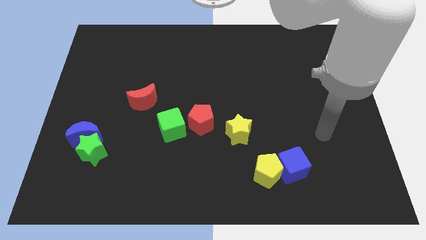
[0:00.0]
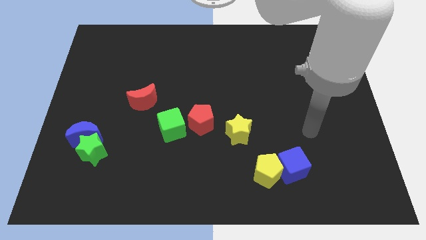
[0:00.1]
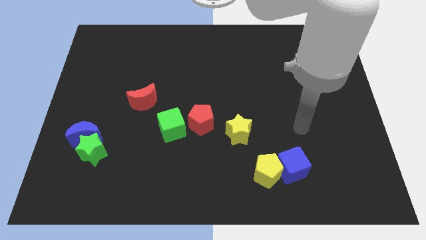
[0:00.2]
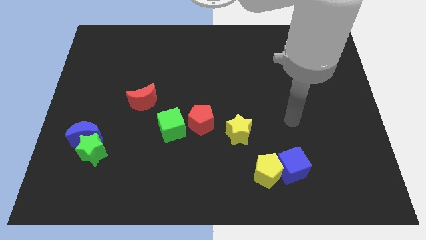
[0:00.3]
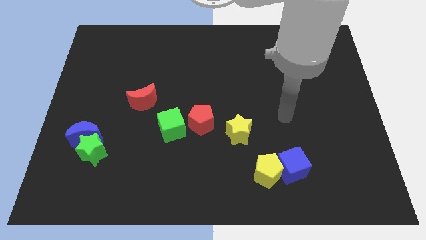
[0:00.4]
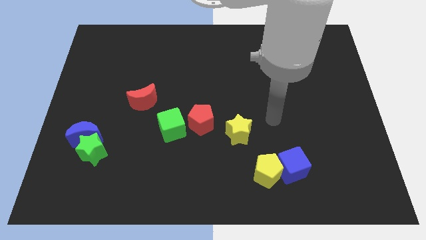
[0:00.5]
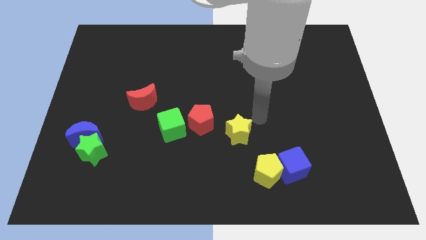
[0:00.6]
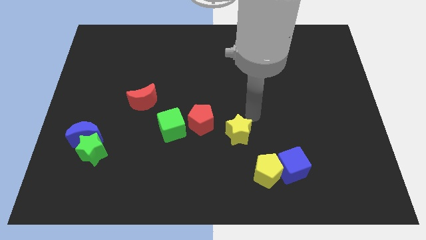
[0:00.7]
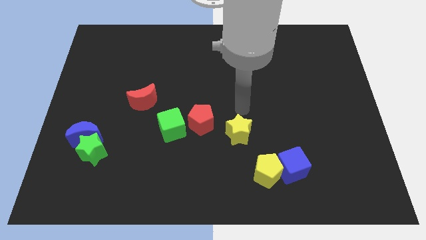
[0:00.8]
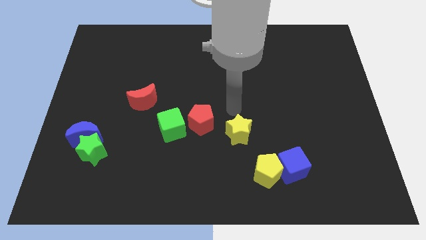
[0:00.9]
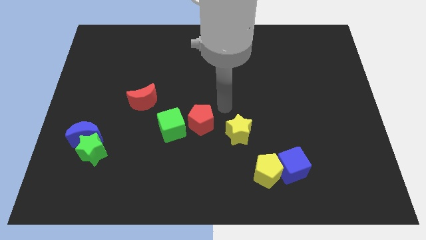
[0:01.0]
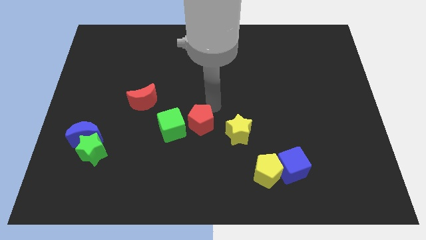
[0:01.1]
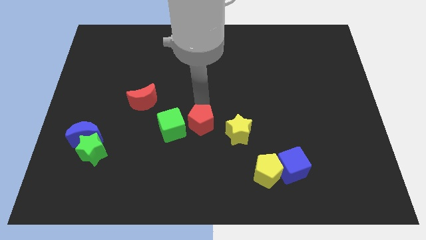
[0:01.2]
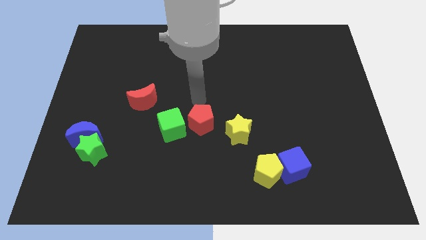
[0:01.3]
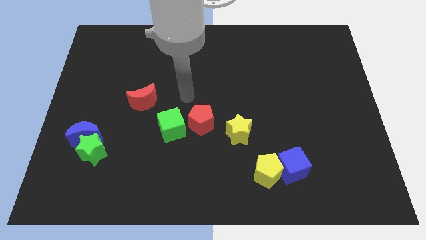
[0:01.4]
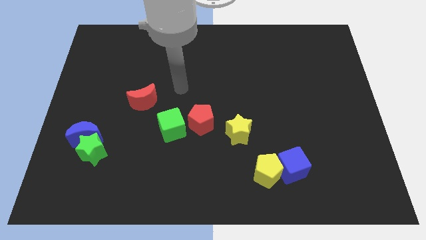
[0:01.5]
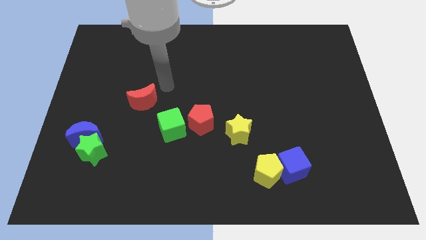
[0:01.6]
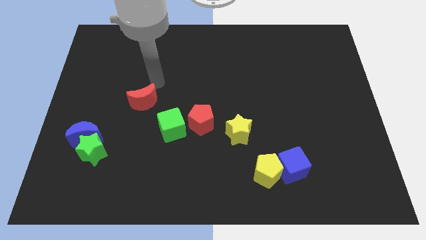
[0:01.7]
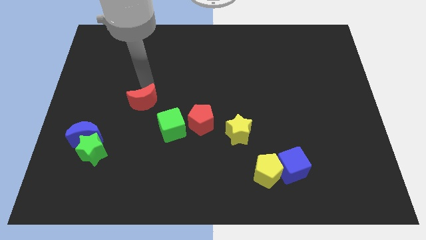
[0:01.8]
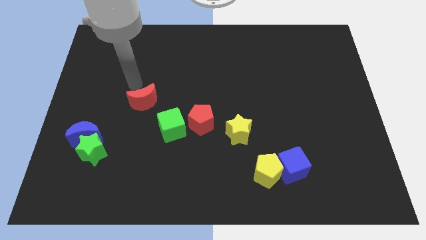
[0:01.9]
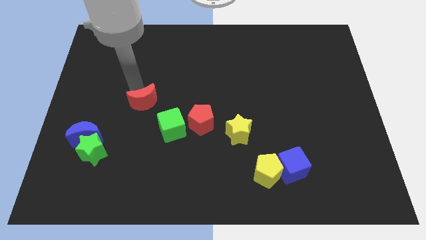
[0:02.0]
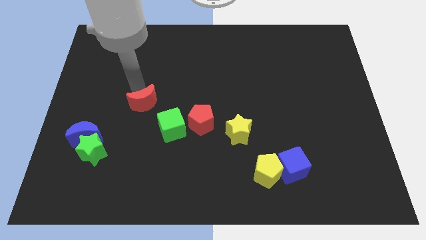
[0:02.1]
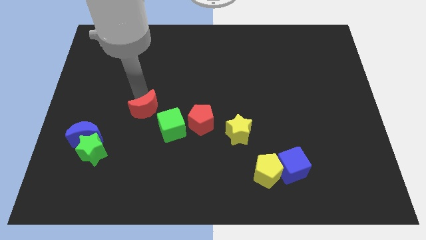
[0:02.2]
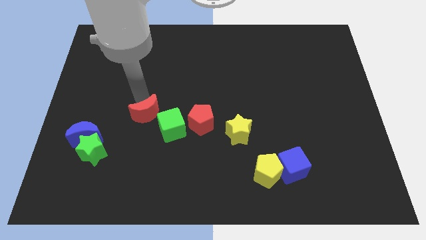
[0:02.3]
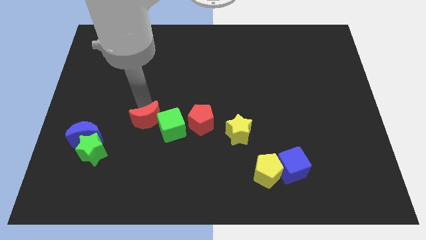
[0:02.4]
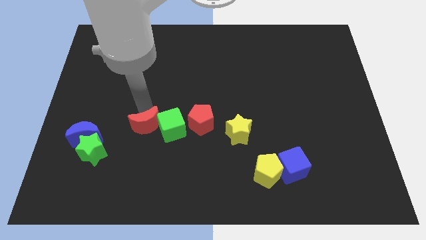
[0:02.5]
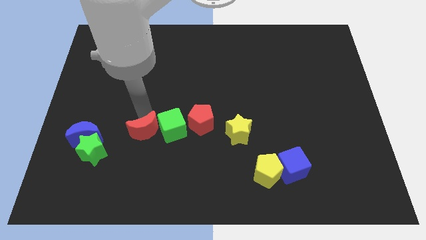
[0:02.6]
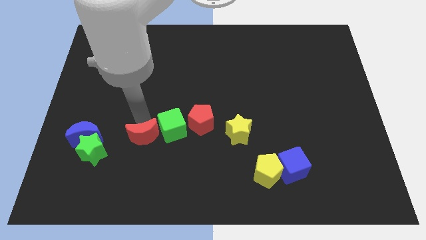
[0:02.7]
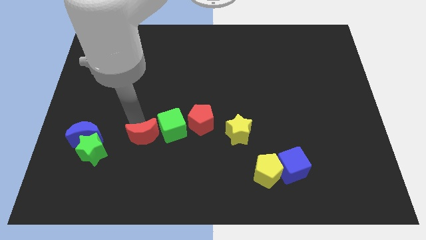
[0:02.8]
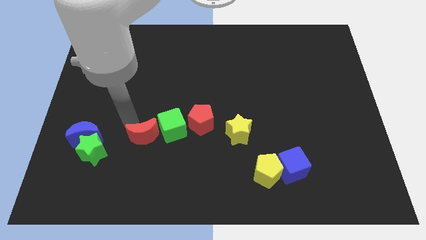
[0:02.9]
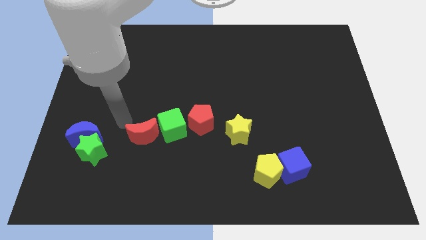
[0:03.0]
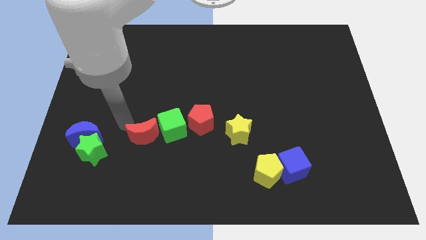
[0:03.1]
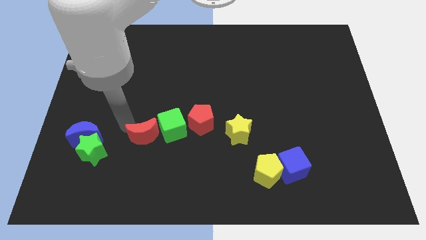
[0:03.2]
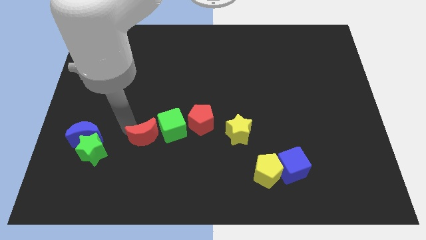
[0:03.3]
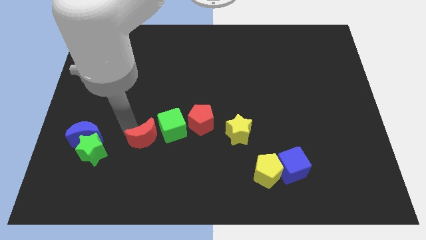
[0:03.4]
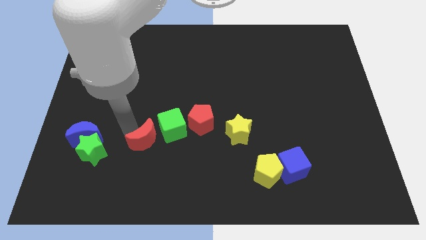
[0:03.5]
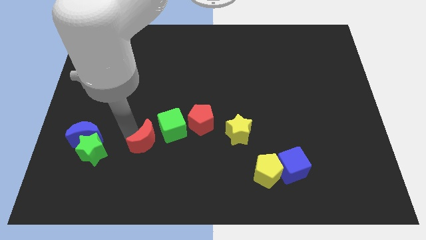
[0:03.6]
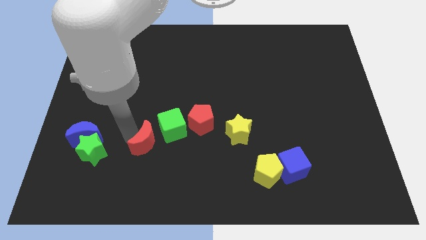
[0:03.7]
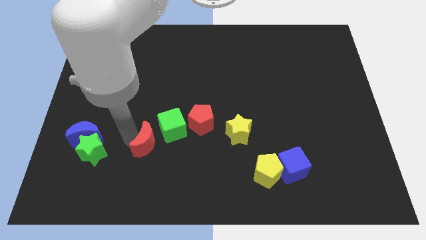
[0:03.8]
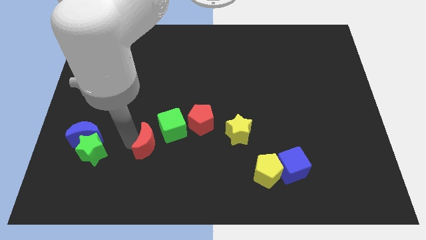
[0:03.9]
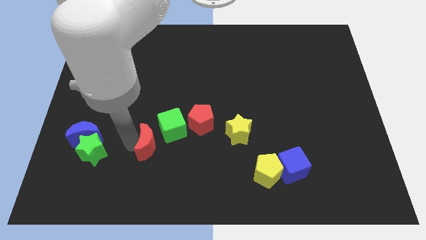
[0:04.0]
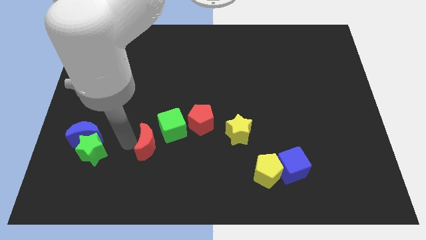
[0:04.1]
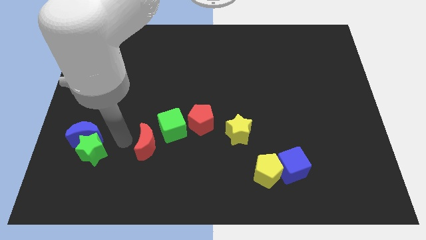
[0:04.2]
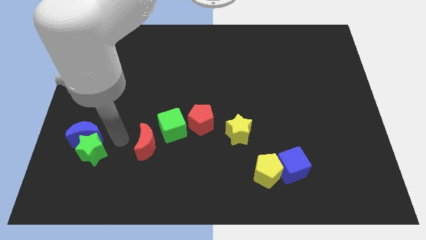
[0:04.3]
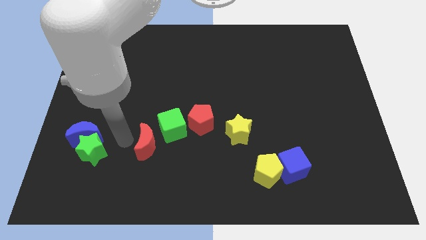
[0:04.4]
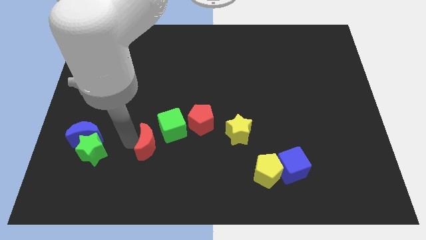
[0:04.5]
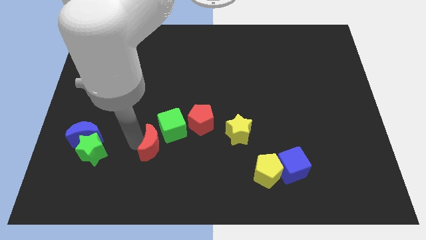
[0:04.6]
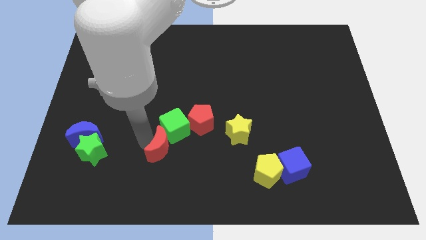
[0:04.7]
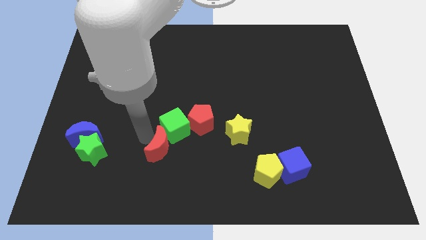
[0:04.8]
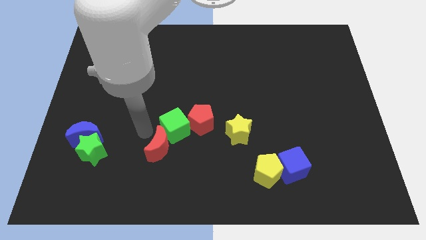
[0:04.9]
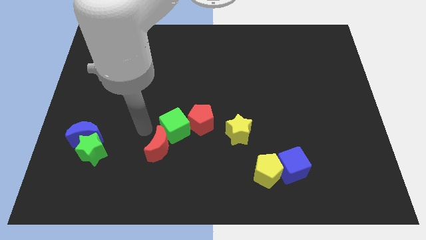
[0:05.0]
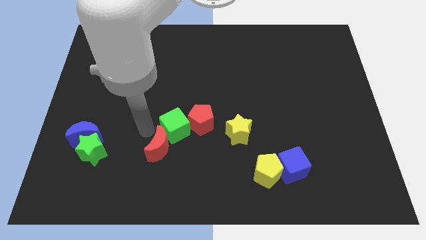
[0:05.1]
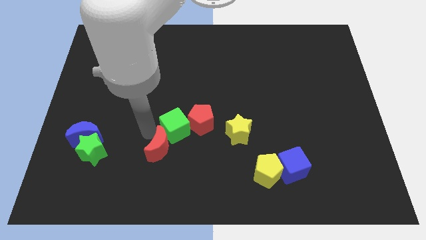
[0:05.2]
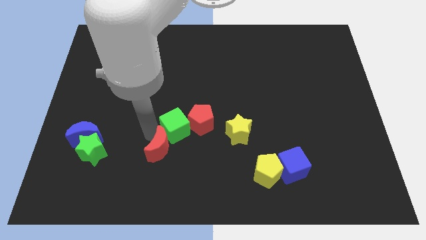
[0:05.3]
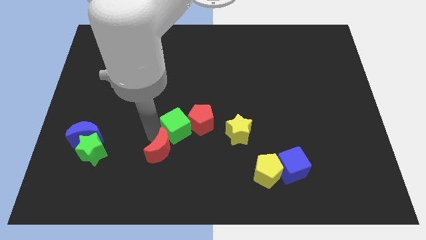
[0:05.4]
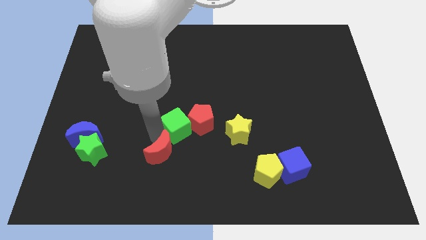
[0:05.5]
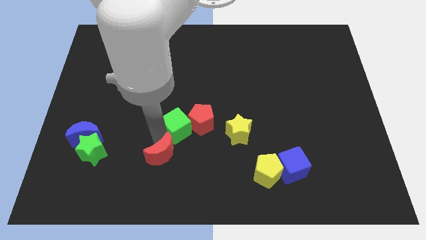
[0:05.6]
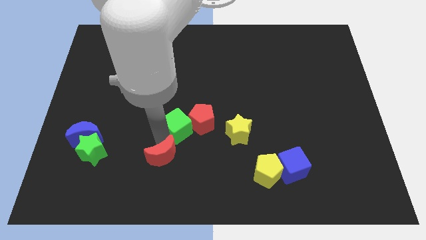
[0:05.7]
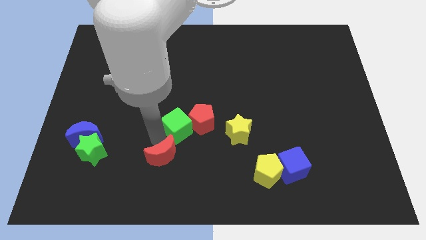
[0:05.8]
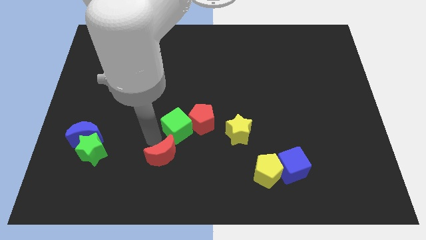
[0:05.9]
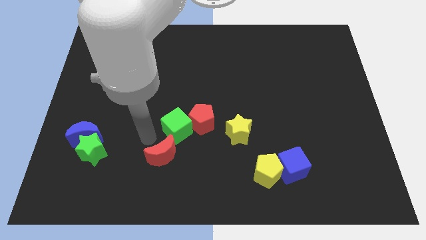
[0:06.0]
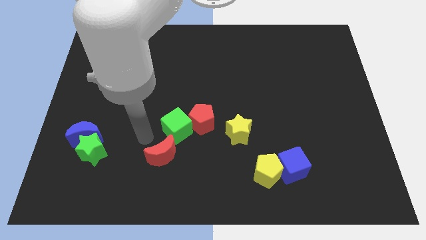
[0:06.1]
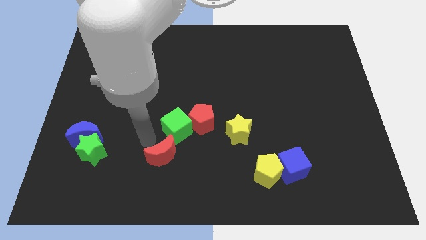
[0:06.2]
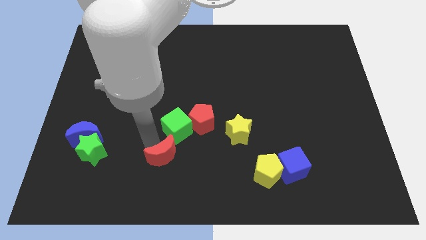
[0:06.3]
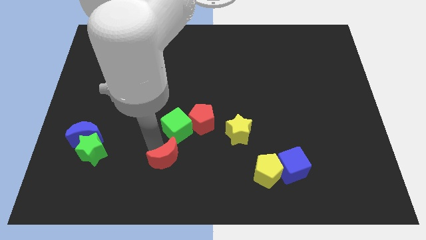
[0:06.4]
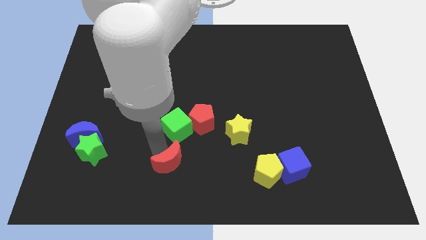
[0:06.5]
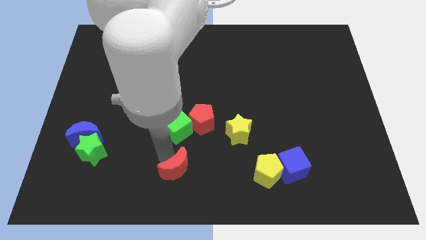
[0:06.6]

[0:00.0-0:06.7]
push the red moon to the bottom side

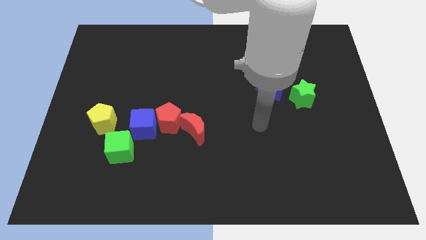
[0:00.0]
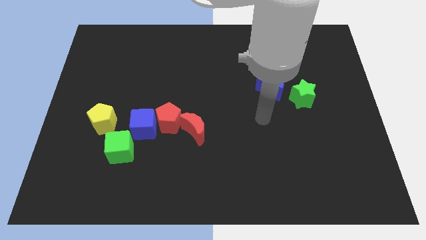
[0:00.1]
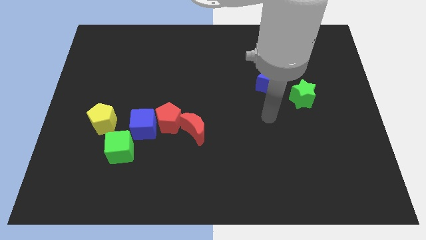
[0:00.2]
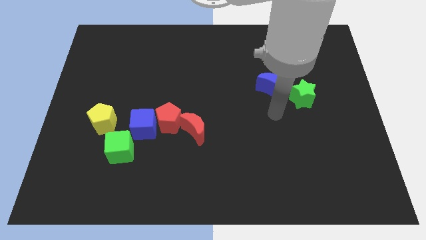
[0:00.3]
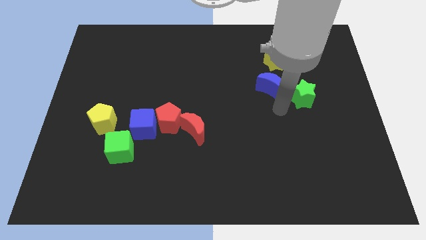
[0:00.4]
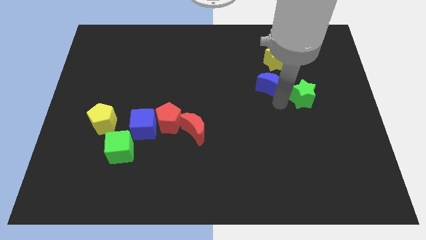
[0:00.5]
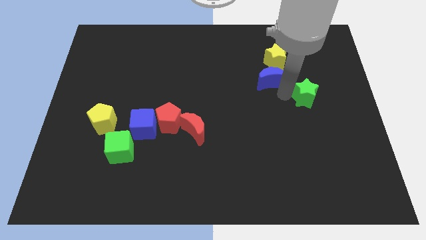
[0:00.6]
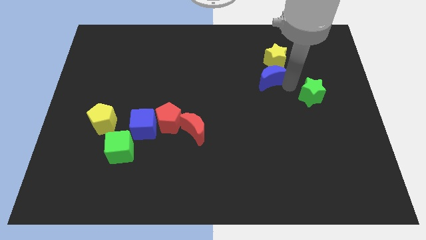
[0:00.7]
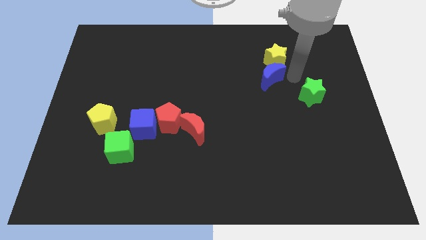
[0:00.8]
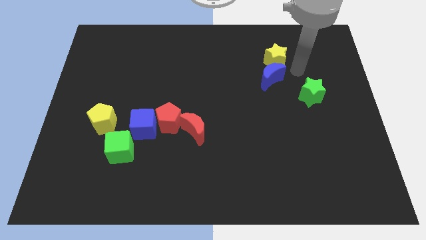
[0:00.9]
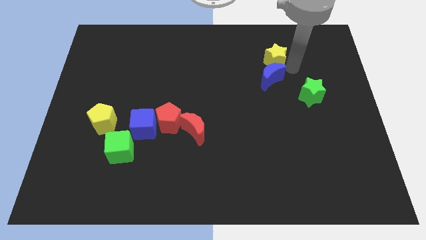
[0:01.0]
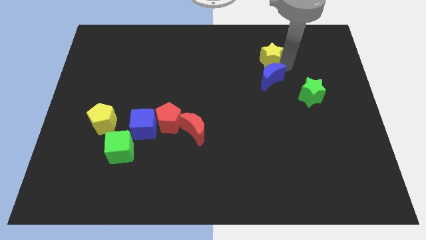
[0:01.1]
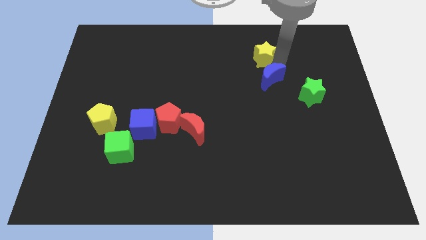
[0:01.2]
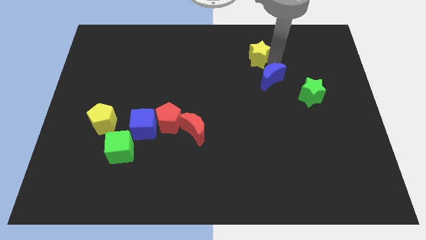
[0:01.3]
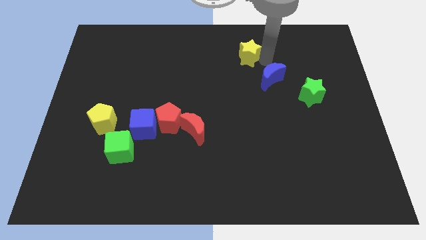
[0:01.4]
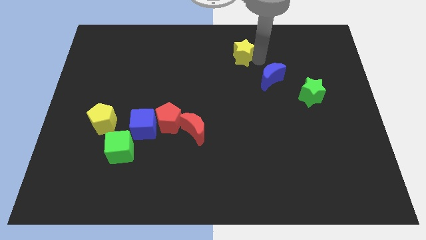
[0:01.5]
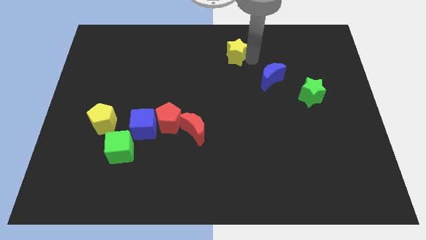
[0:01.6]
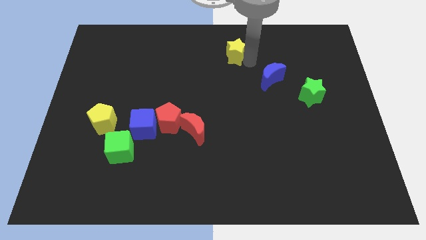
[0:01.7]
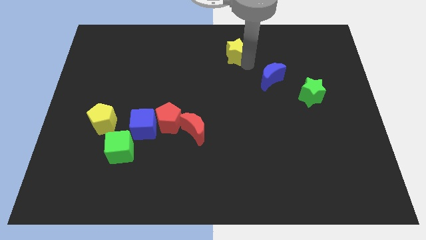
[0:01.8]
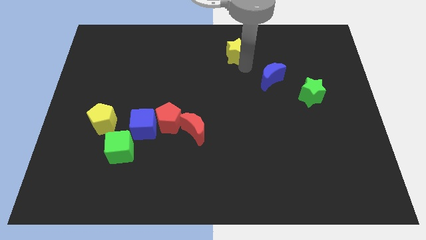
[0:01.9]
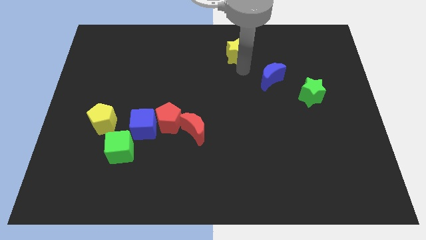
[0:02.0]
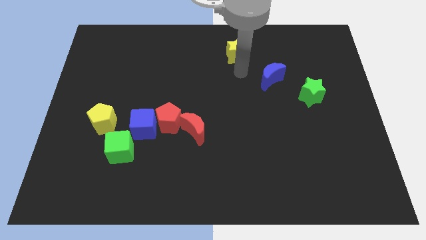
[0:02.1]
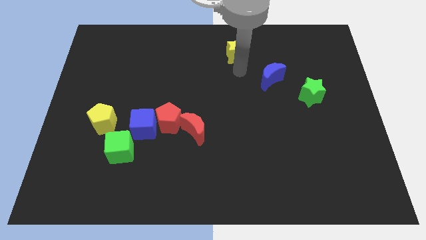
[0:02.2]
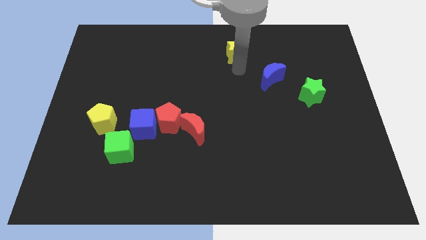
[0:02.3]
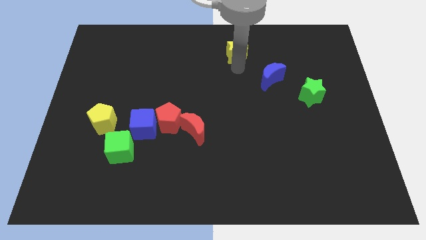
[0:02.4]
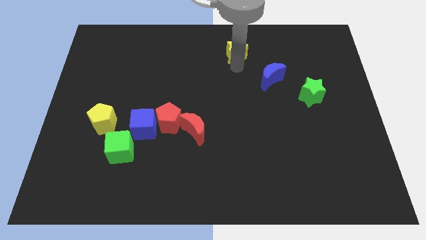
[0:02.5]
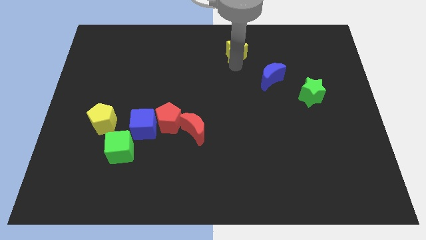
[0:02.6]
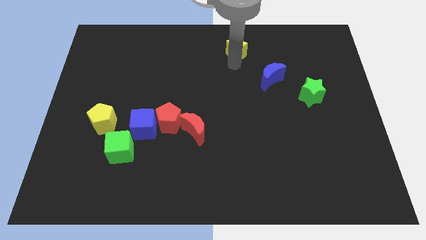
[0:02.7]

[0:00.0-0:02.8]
put the yellow star to the top side
